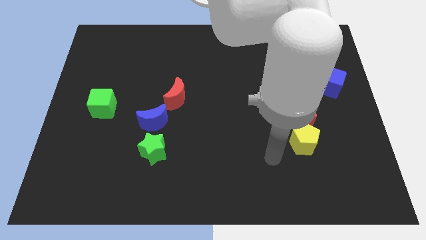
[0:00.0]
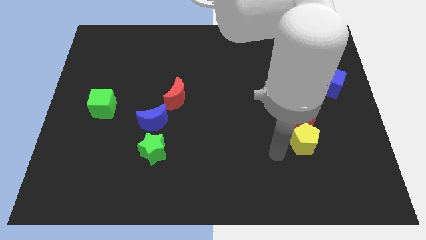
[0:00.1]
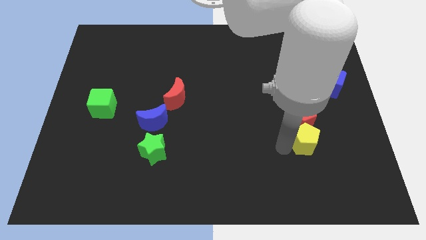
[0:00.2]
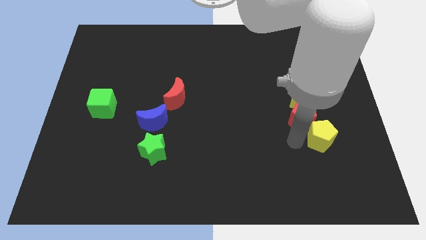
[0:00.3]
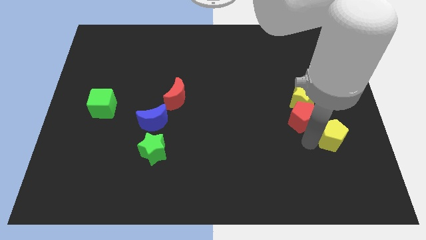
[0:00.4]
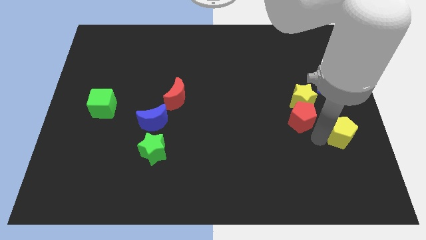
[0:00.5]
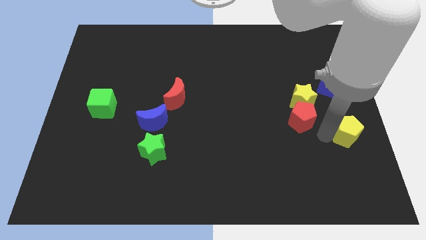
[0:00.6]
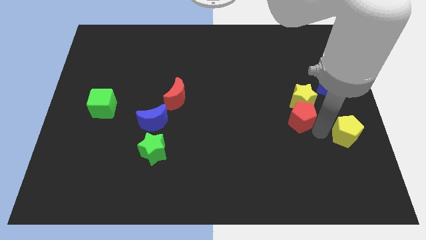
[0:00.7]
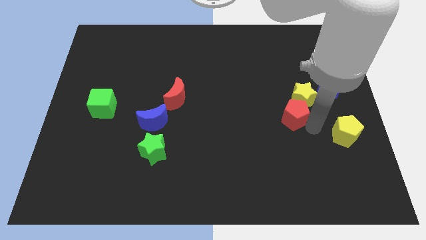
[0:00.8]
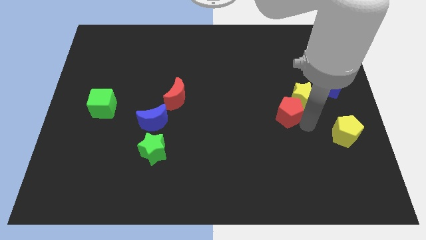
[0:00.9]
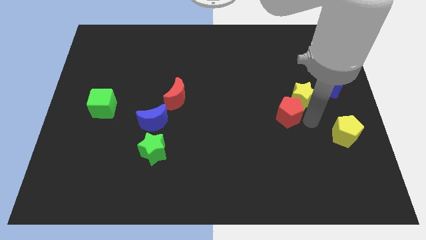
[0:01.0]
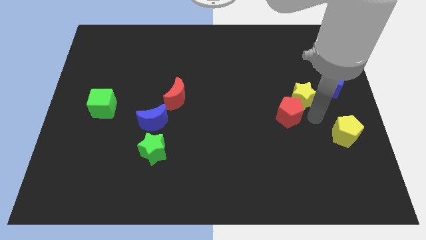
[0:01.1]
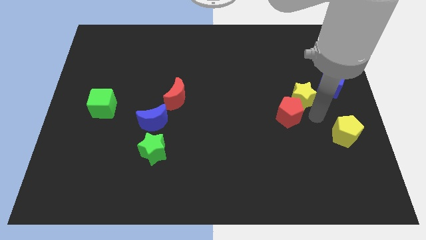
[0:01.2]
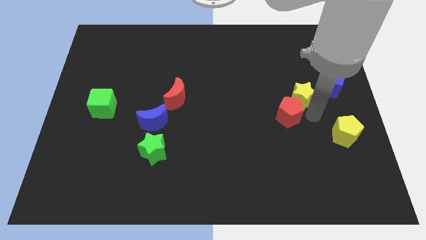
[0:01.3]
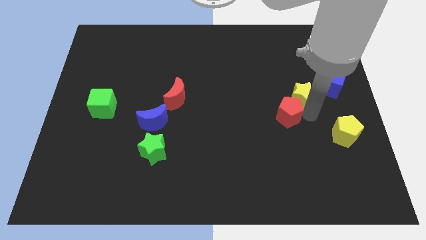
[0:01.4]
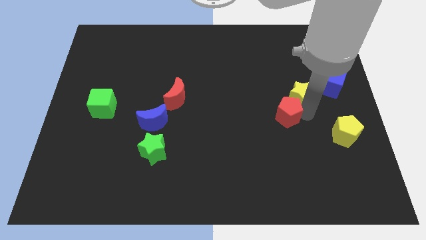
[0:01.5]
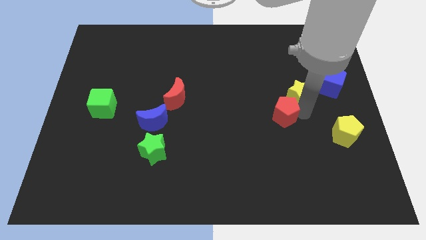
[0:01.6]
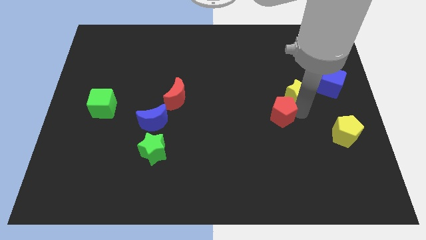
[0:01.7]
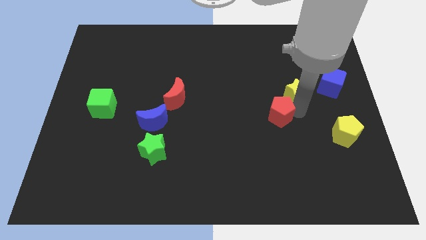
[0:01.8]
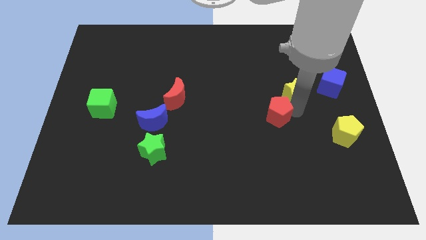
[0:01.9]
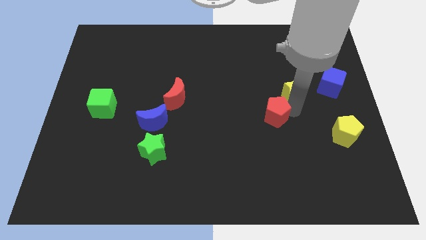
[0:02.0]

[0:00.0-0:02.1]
pull the red pentagon apart from the yellow star and yellow pentagon

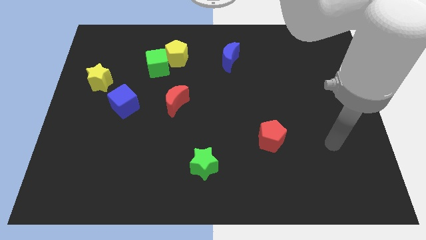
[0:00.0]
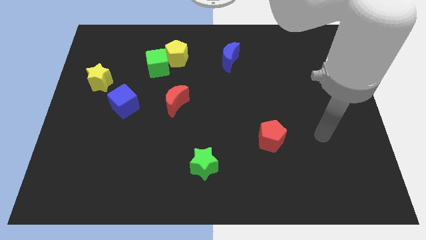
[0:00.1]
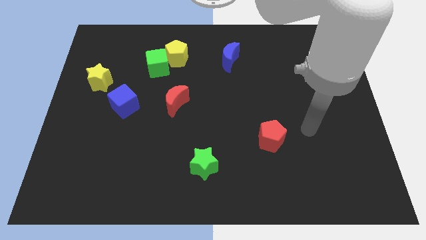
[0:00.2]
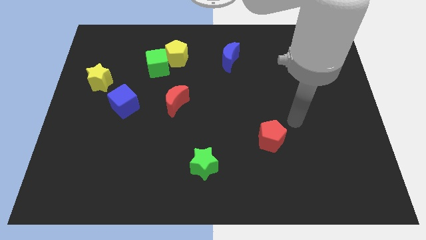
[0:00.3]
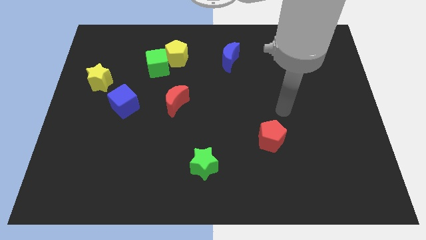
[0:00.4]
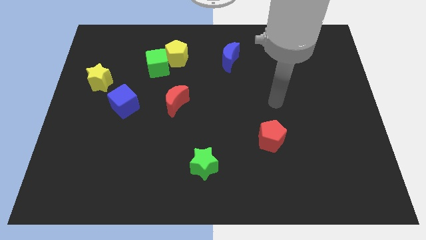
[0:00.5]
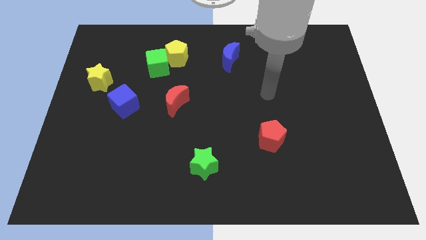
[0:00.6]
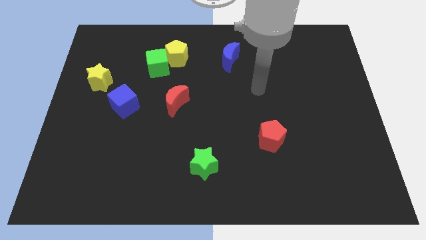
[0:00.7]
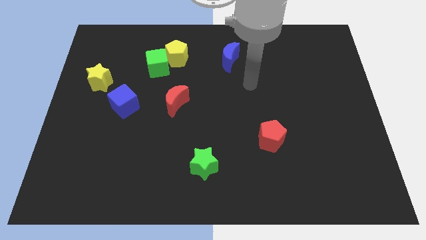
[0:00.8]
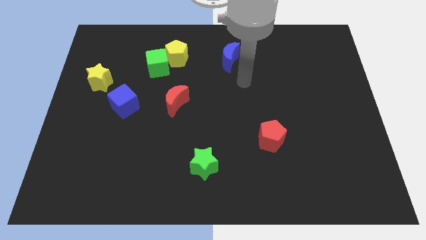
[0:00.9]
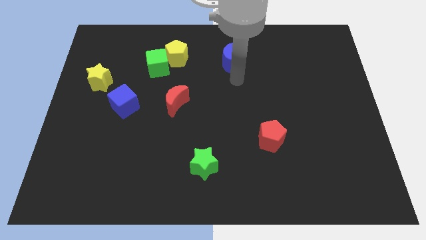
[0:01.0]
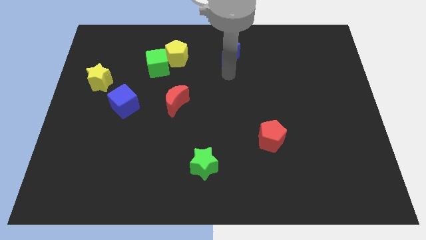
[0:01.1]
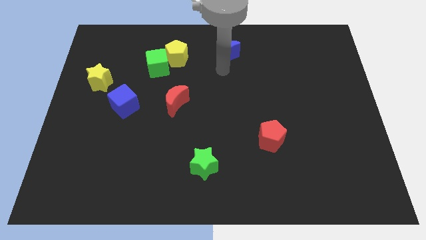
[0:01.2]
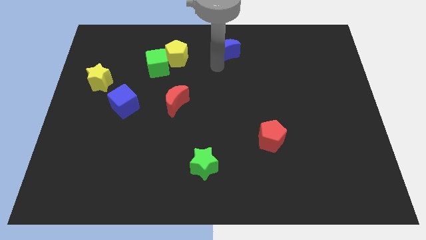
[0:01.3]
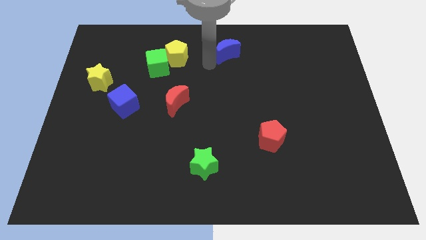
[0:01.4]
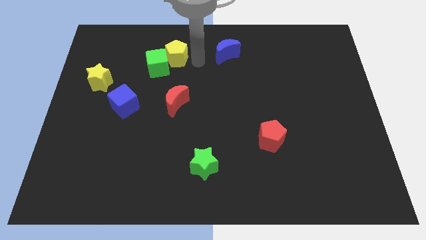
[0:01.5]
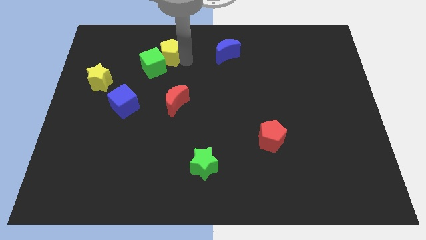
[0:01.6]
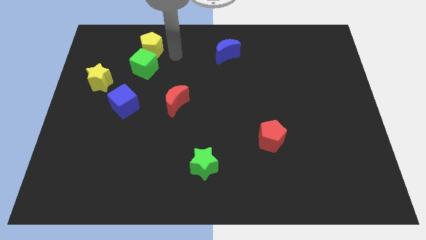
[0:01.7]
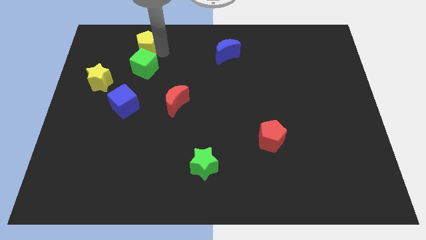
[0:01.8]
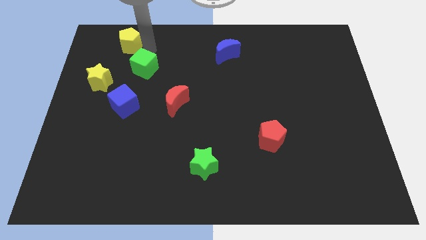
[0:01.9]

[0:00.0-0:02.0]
move the green cube away from the yellow pentagon

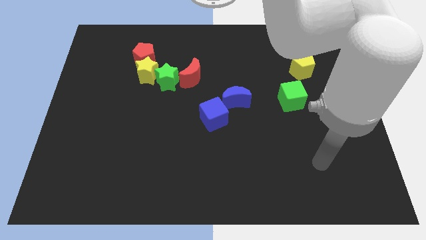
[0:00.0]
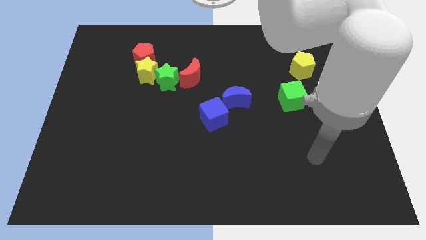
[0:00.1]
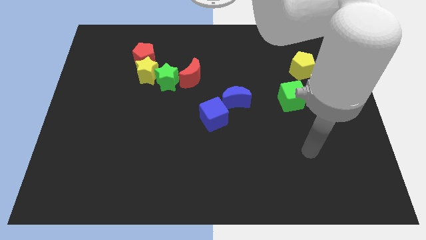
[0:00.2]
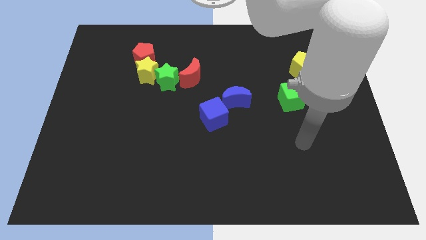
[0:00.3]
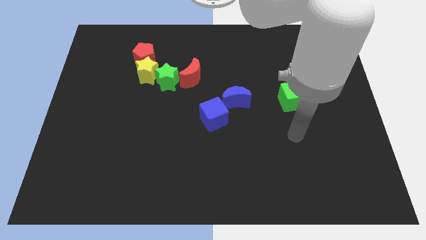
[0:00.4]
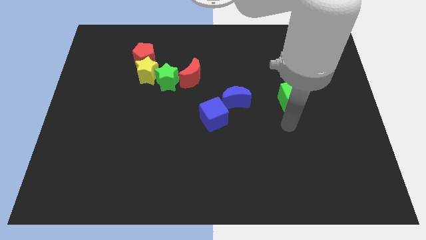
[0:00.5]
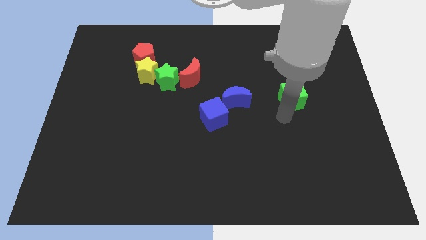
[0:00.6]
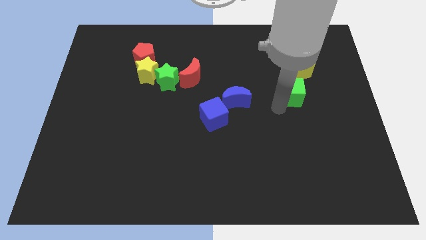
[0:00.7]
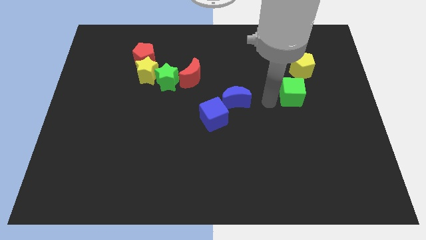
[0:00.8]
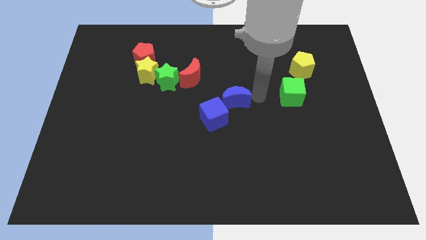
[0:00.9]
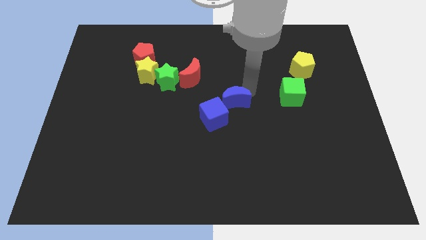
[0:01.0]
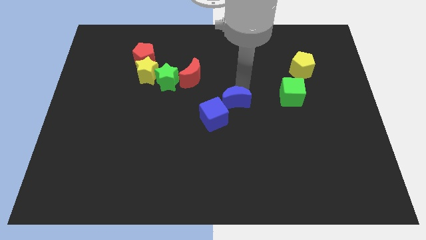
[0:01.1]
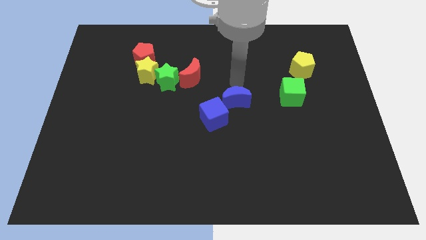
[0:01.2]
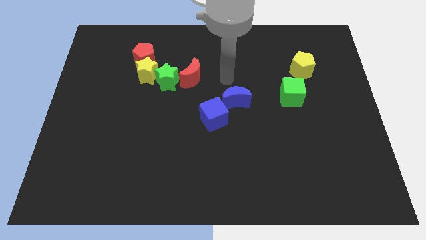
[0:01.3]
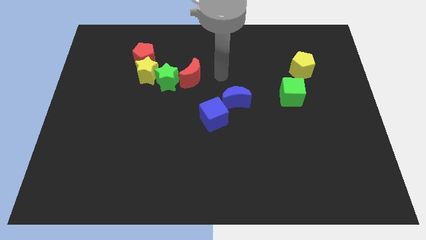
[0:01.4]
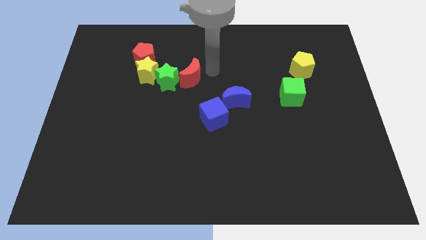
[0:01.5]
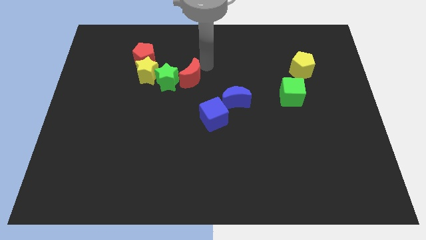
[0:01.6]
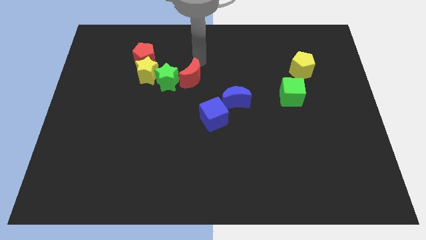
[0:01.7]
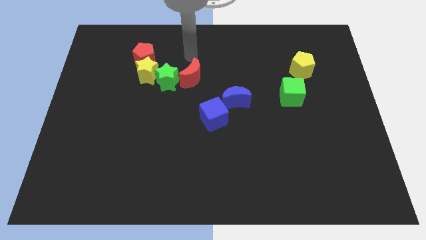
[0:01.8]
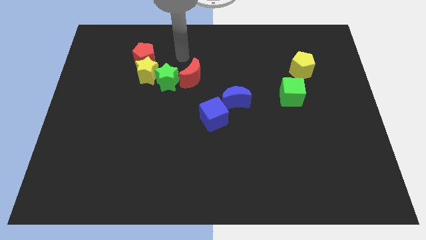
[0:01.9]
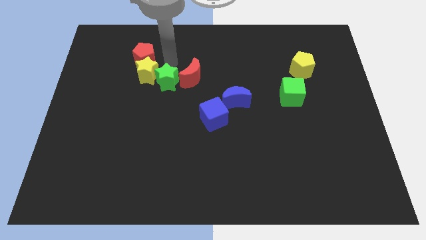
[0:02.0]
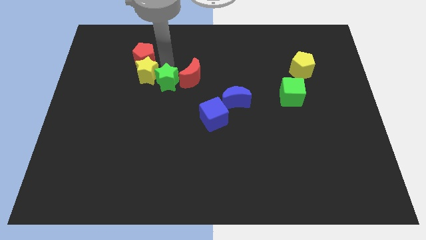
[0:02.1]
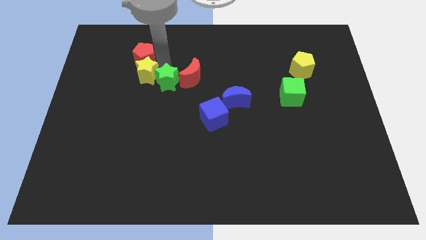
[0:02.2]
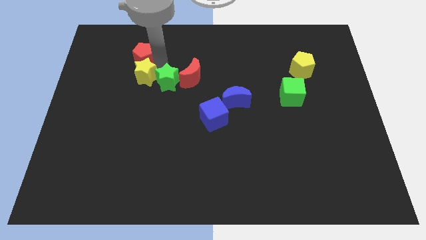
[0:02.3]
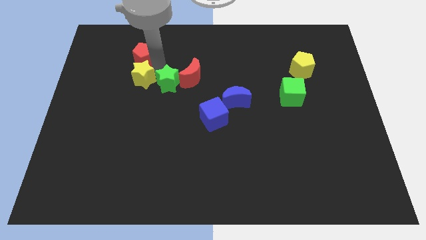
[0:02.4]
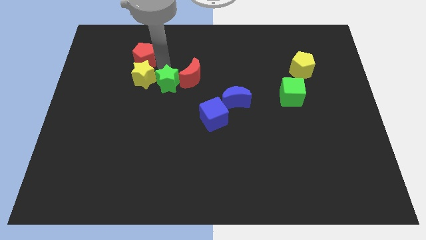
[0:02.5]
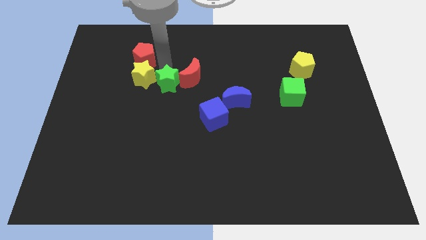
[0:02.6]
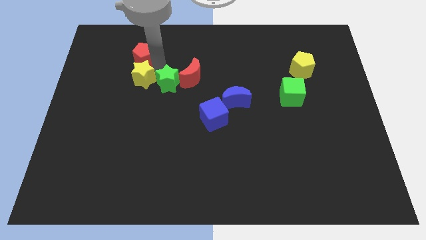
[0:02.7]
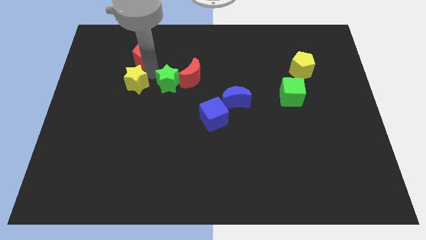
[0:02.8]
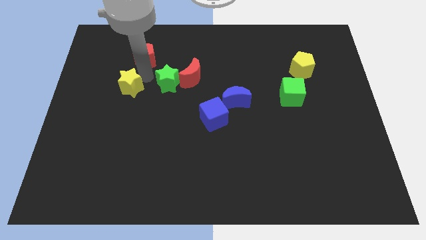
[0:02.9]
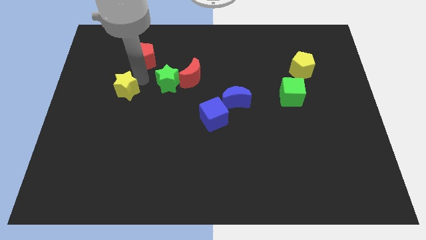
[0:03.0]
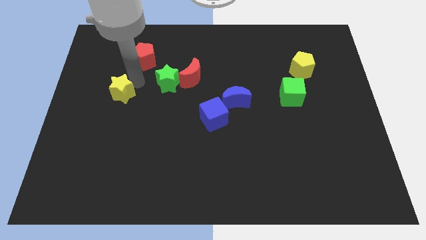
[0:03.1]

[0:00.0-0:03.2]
separate the yellow star from the red pentagon and green star

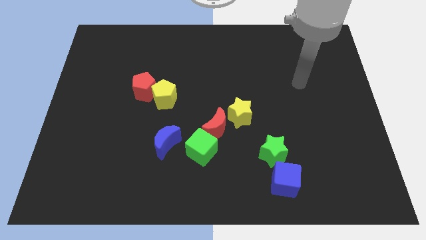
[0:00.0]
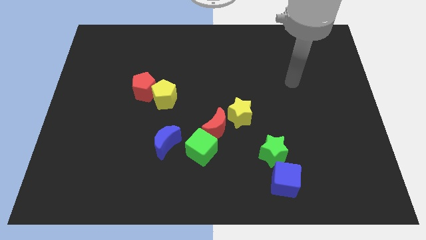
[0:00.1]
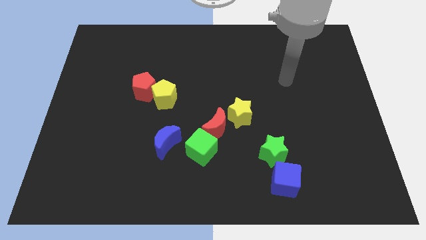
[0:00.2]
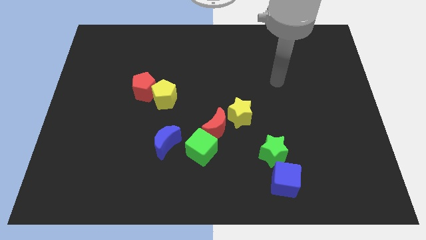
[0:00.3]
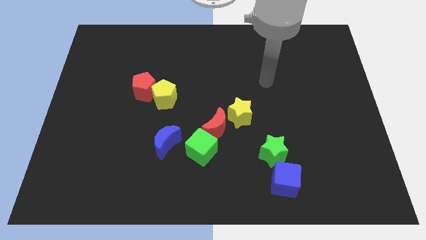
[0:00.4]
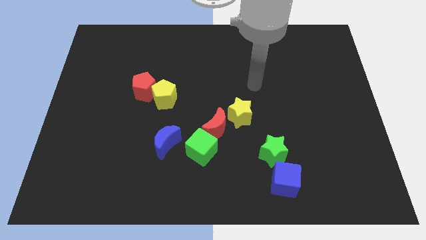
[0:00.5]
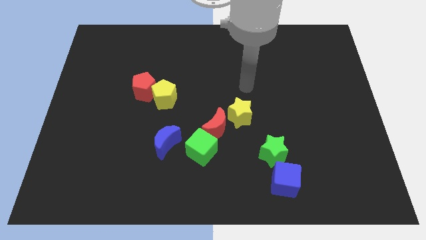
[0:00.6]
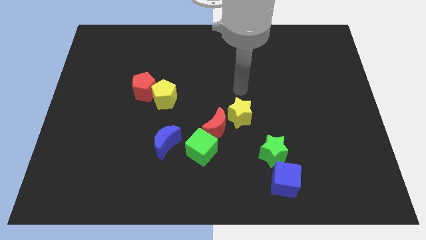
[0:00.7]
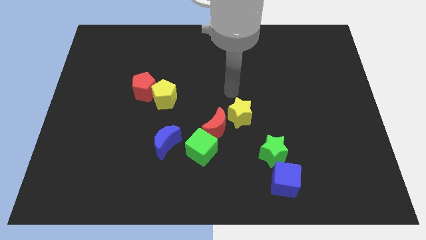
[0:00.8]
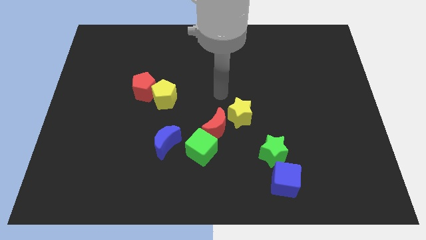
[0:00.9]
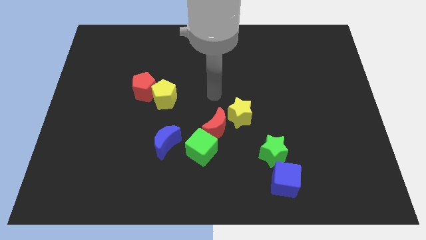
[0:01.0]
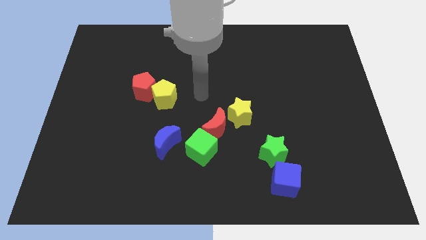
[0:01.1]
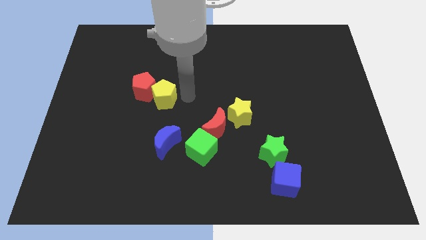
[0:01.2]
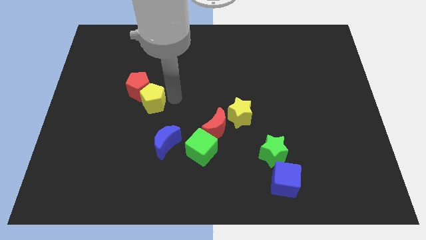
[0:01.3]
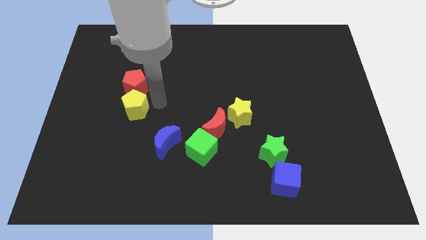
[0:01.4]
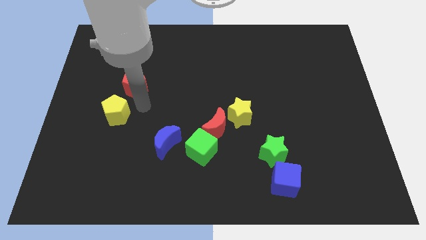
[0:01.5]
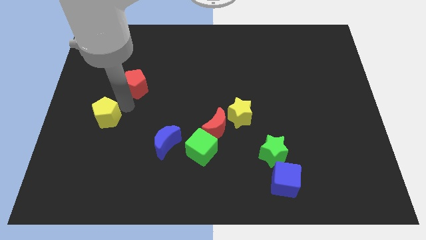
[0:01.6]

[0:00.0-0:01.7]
separate the red pentagon from the yellow pentagon

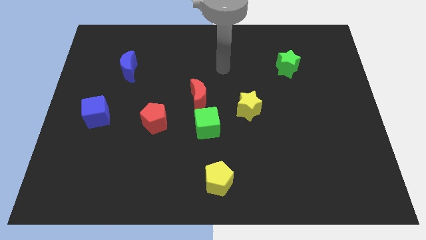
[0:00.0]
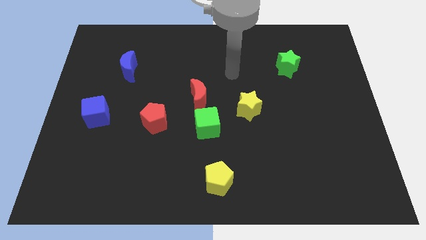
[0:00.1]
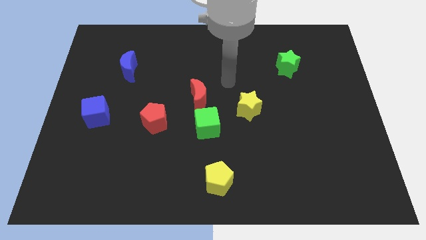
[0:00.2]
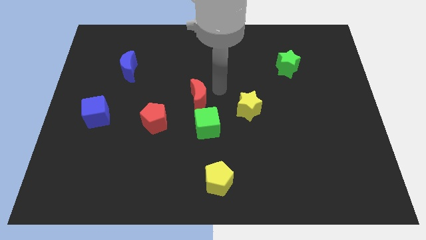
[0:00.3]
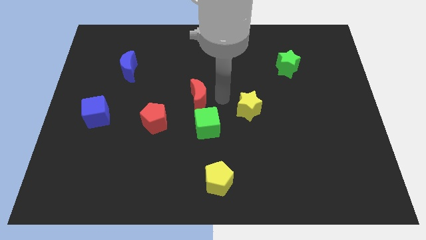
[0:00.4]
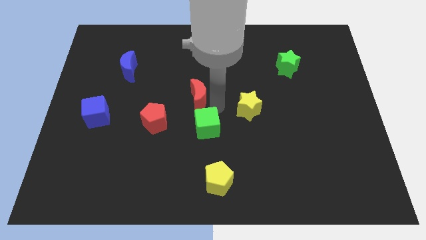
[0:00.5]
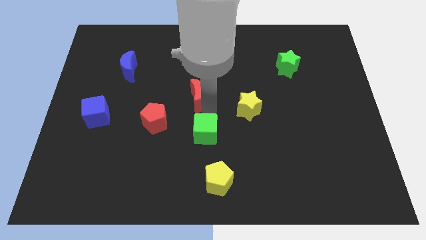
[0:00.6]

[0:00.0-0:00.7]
separate the red moon from the green cube
